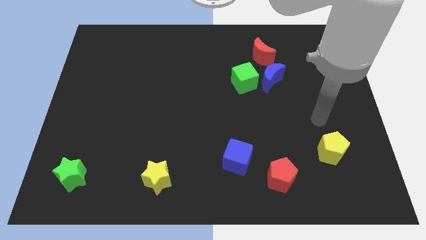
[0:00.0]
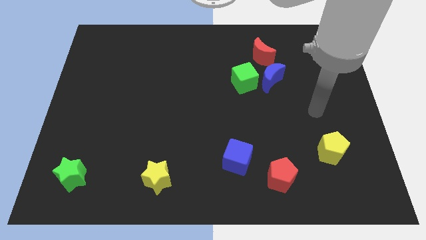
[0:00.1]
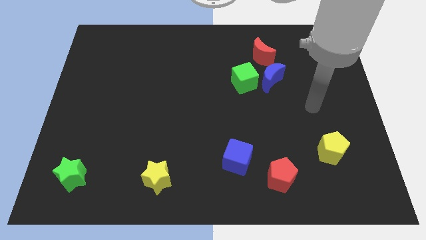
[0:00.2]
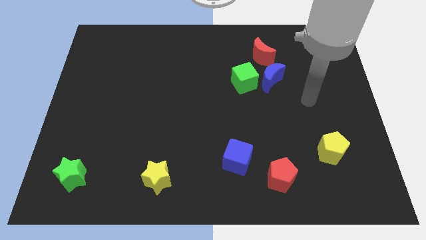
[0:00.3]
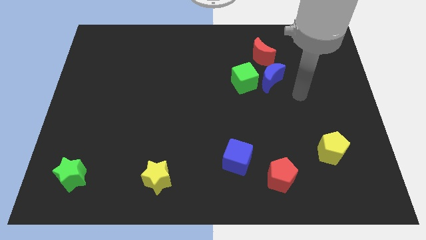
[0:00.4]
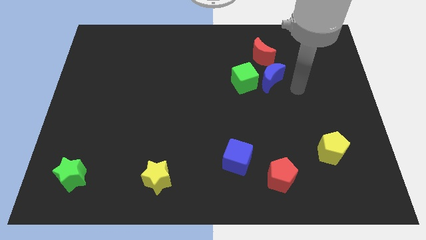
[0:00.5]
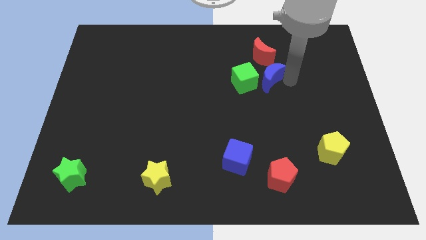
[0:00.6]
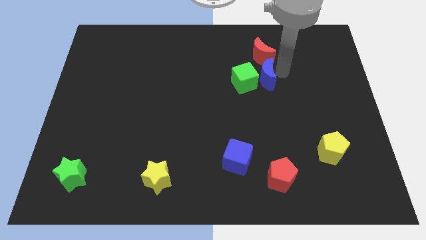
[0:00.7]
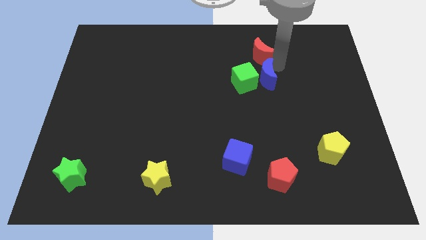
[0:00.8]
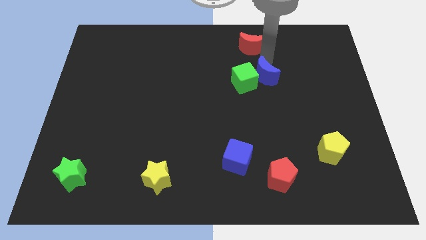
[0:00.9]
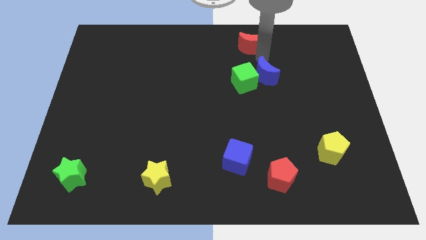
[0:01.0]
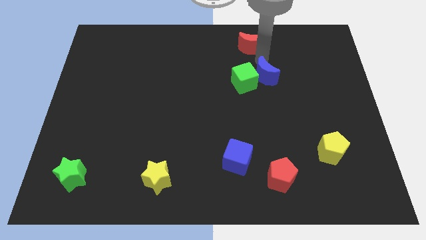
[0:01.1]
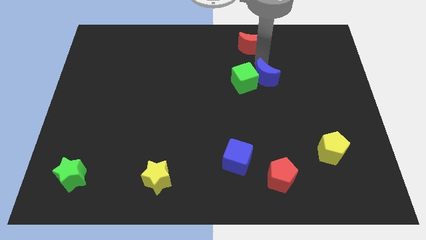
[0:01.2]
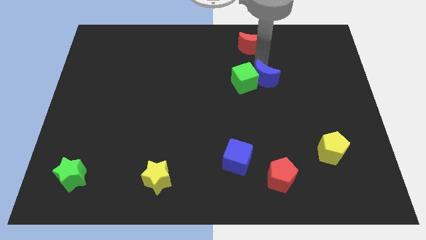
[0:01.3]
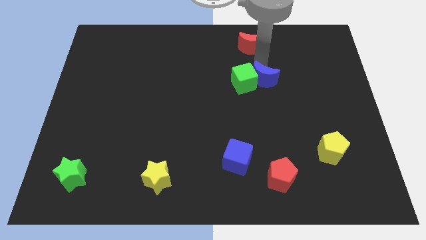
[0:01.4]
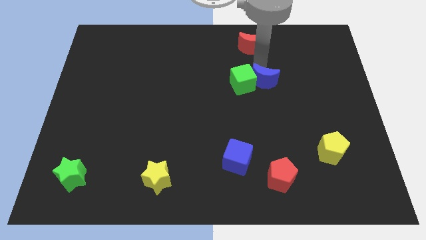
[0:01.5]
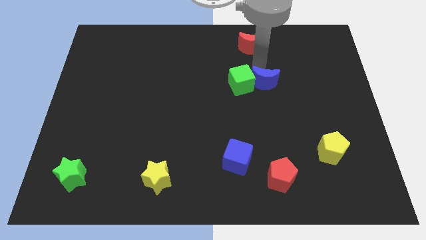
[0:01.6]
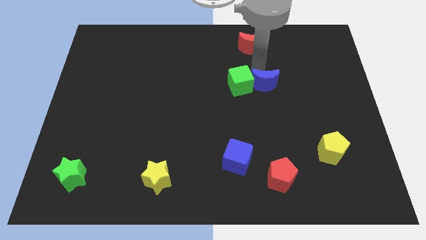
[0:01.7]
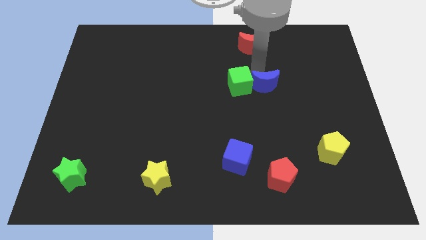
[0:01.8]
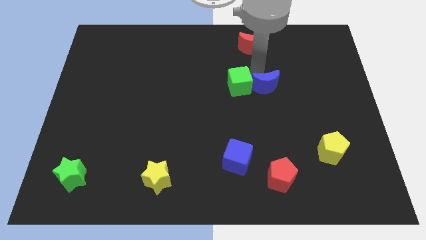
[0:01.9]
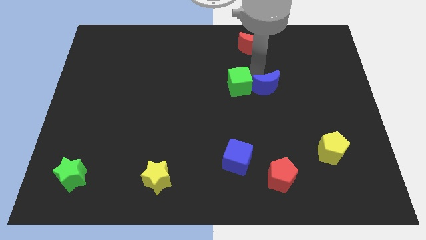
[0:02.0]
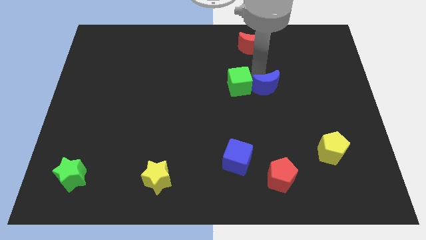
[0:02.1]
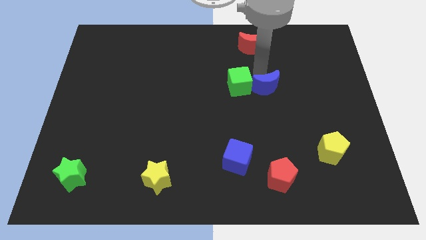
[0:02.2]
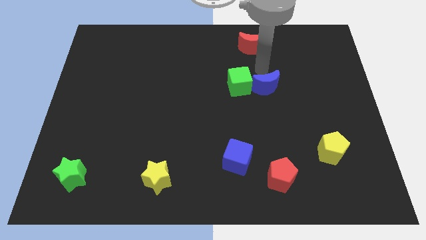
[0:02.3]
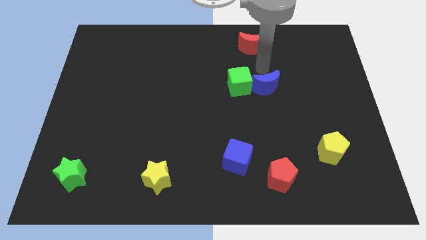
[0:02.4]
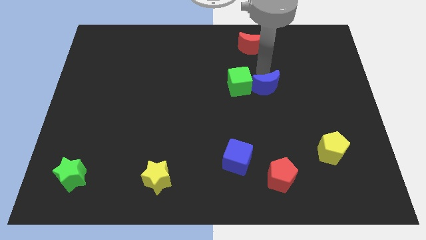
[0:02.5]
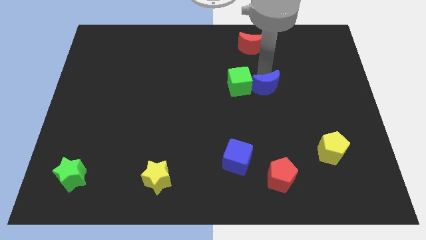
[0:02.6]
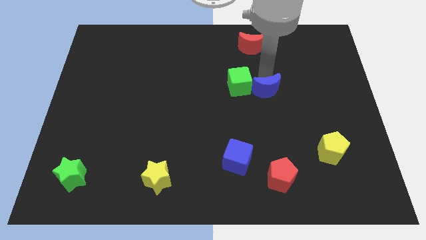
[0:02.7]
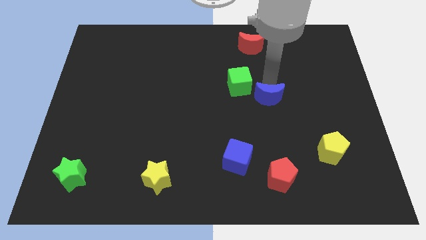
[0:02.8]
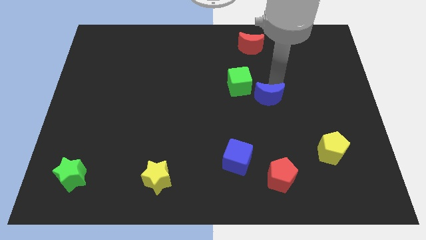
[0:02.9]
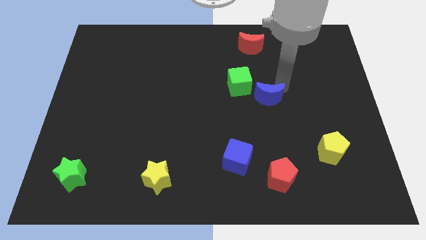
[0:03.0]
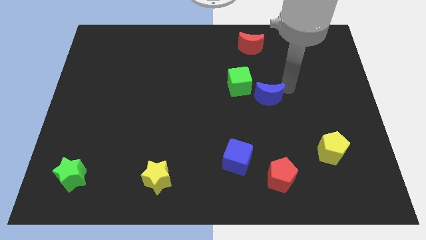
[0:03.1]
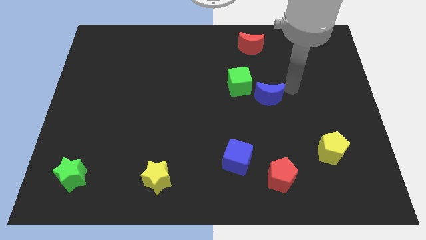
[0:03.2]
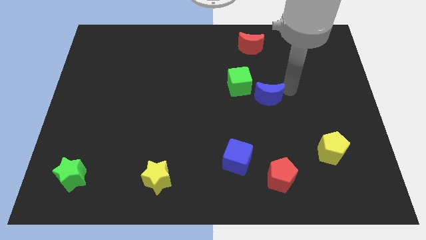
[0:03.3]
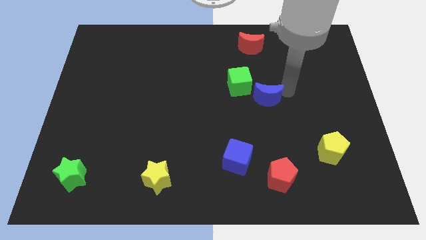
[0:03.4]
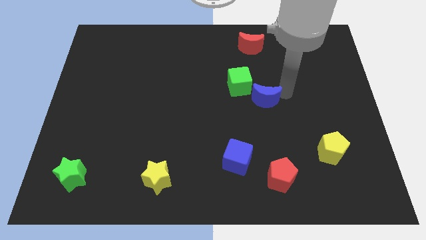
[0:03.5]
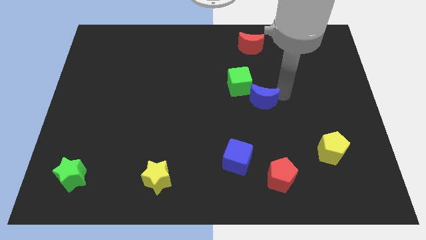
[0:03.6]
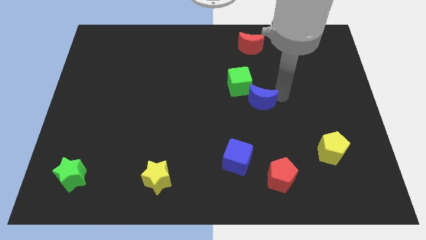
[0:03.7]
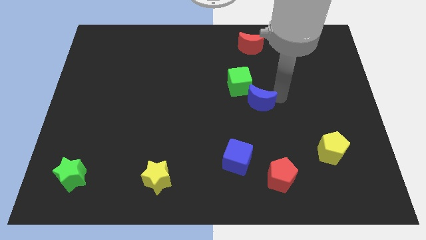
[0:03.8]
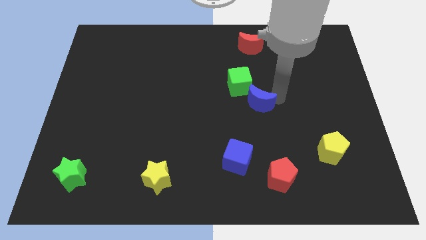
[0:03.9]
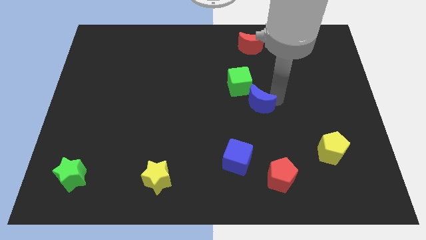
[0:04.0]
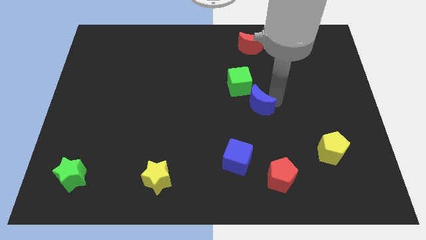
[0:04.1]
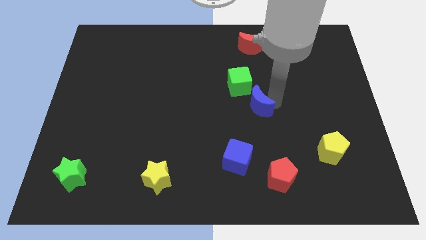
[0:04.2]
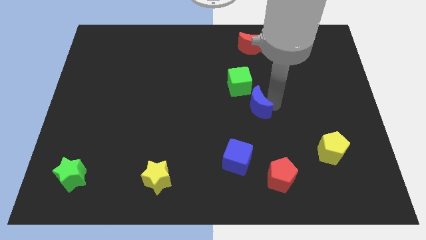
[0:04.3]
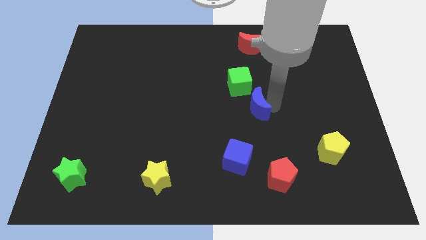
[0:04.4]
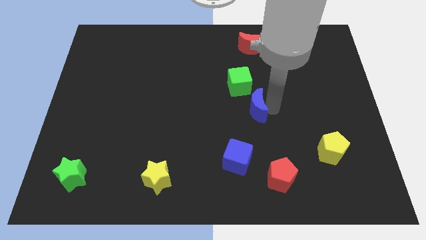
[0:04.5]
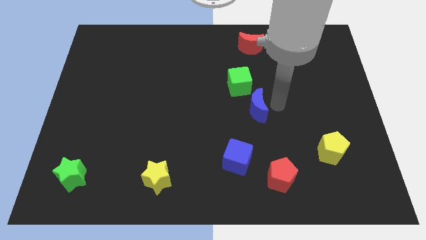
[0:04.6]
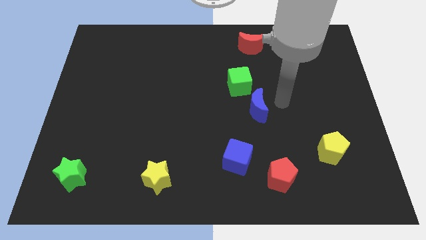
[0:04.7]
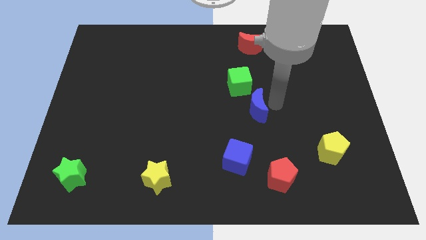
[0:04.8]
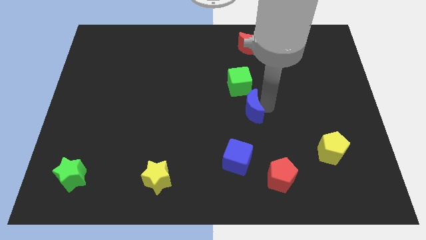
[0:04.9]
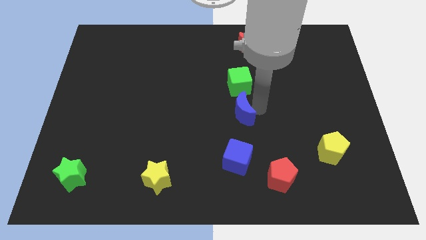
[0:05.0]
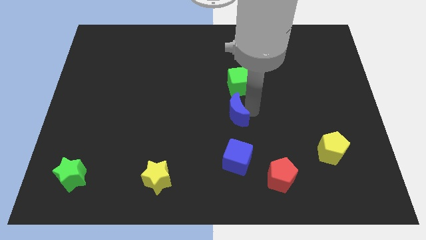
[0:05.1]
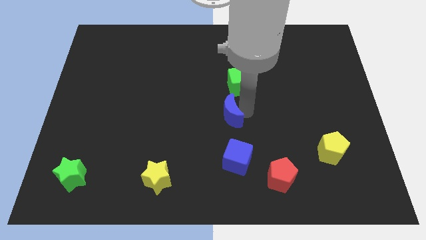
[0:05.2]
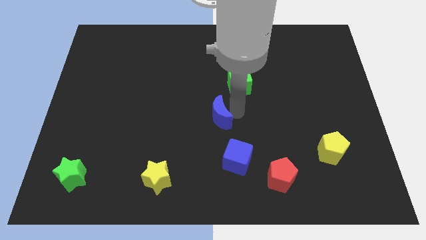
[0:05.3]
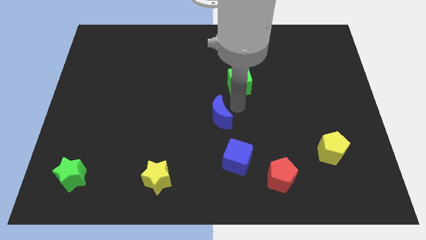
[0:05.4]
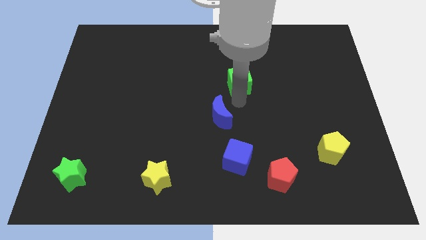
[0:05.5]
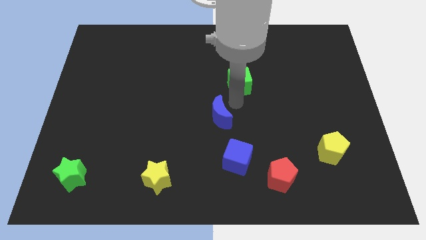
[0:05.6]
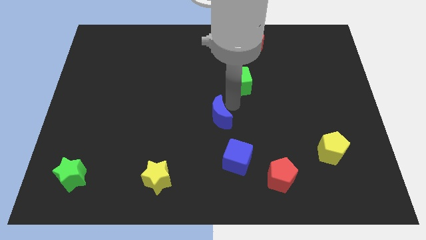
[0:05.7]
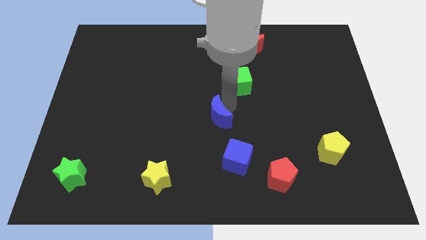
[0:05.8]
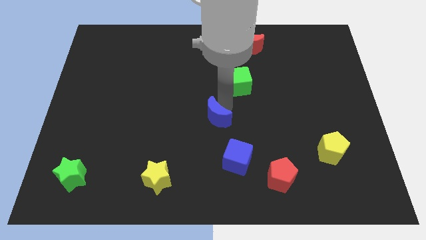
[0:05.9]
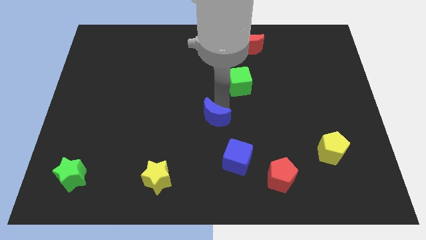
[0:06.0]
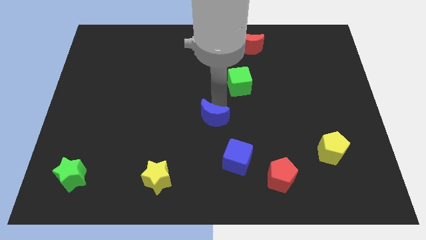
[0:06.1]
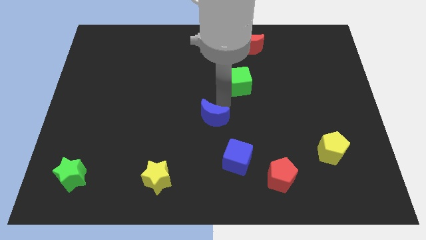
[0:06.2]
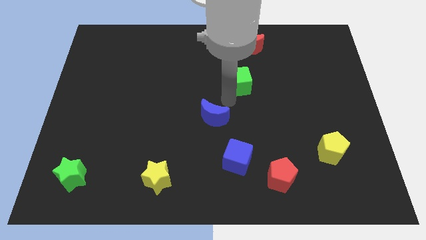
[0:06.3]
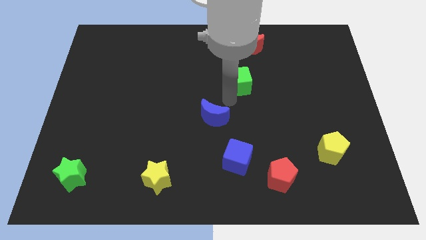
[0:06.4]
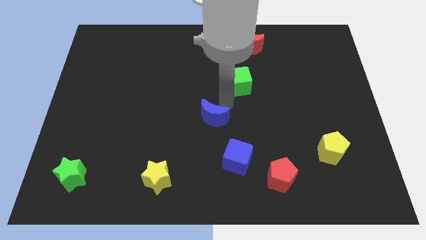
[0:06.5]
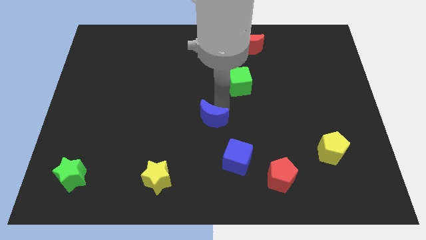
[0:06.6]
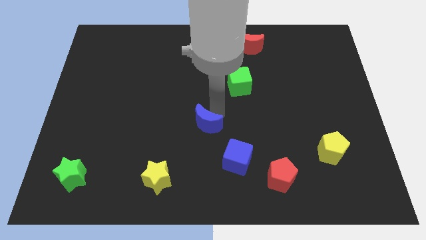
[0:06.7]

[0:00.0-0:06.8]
slide the blue moon downwards and then left

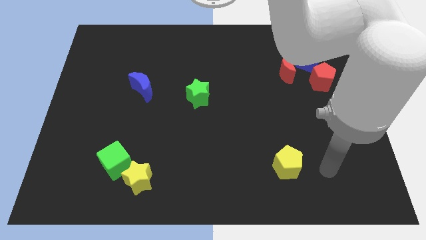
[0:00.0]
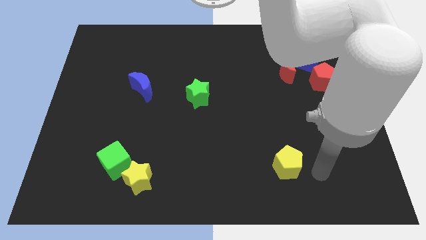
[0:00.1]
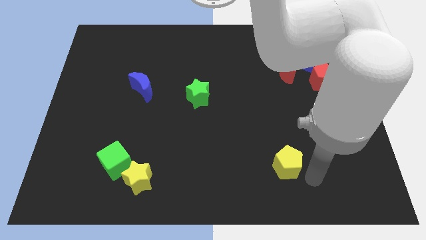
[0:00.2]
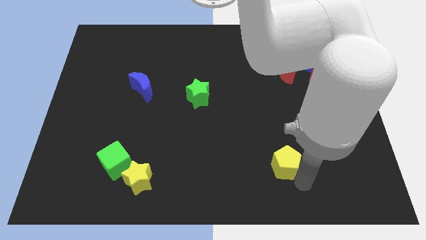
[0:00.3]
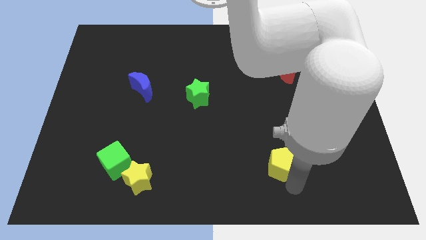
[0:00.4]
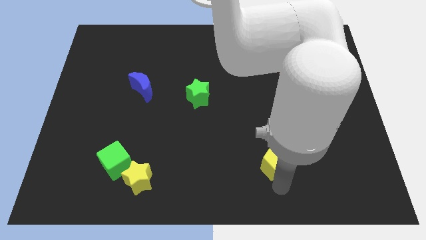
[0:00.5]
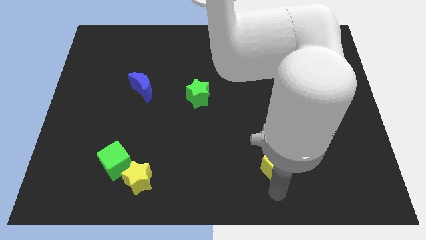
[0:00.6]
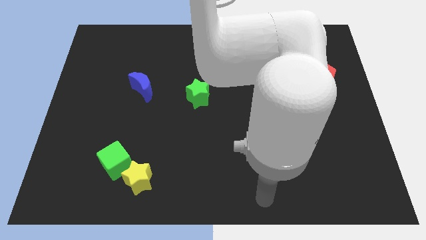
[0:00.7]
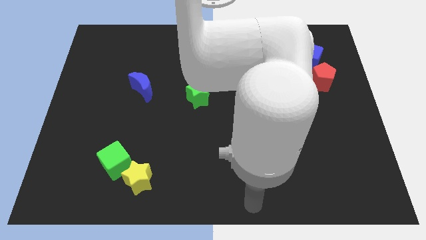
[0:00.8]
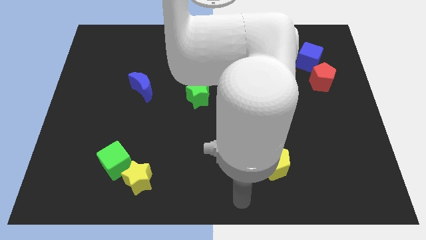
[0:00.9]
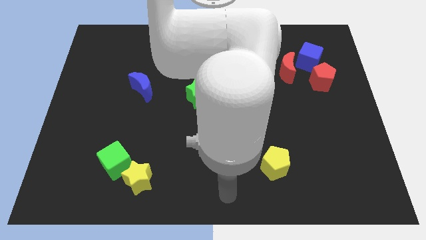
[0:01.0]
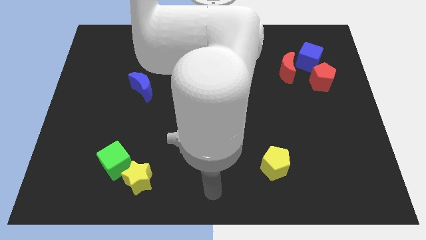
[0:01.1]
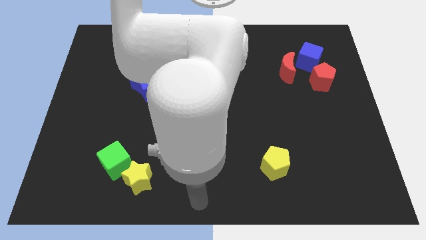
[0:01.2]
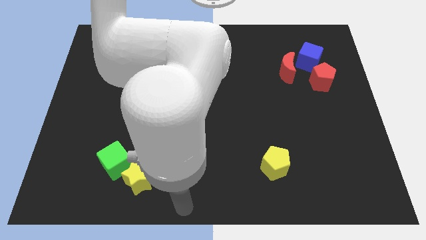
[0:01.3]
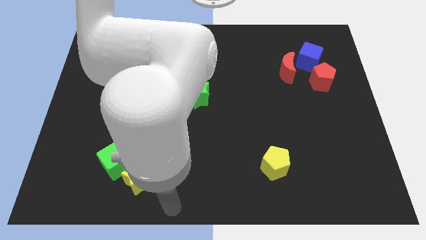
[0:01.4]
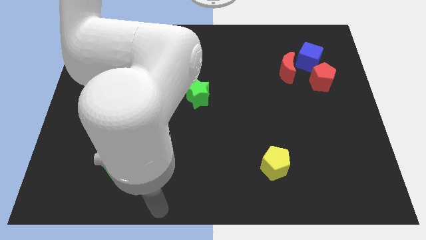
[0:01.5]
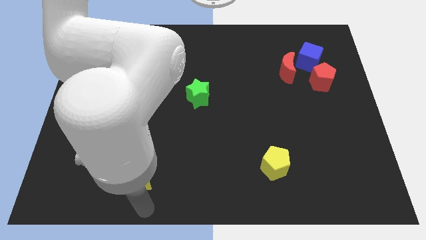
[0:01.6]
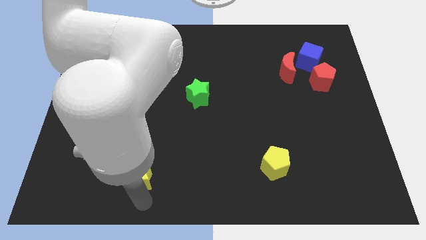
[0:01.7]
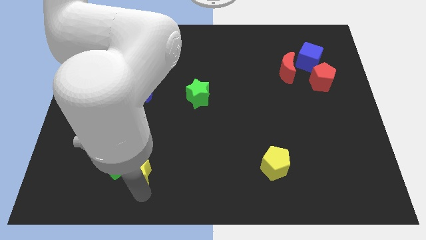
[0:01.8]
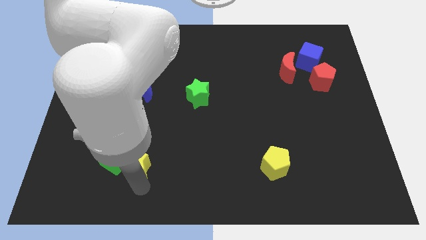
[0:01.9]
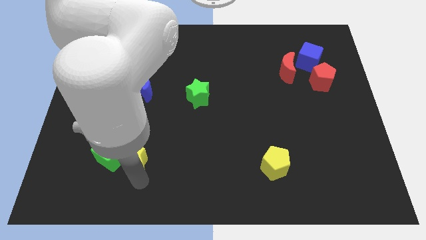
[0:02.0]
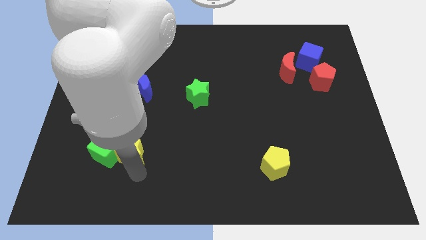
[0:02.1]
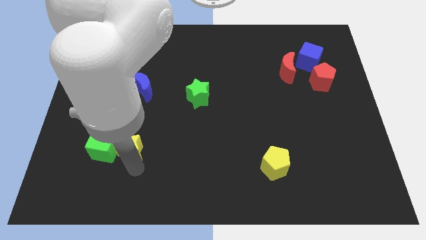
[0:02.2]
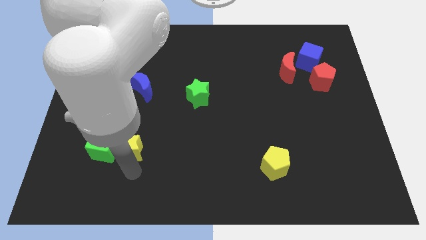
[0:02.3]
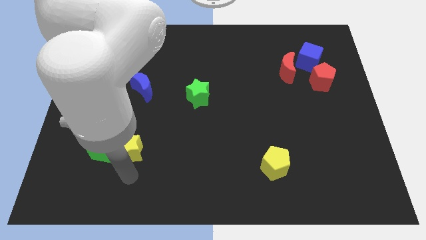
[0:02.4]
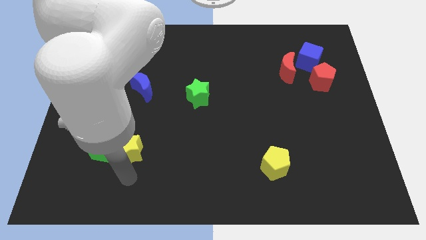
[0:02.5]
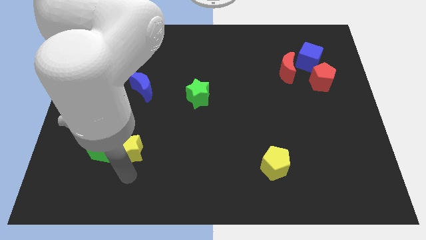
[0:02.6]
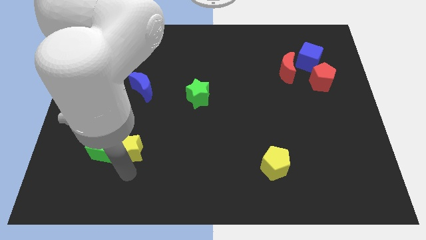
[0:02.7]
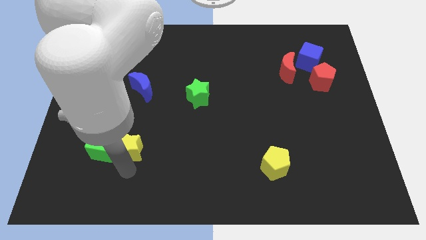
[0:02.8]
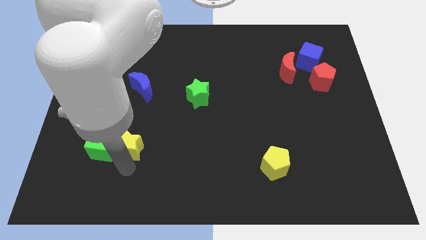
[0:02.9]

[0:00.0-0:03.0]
slide the yellow star slightly up and to the left
